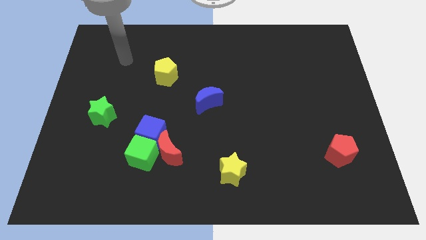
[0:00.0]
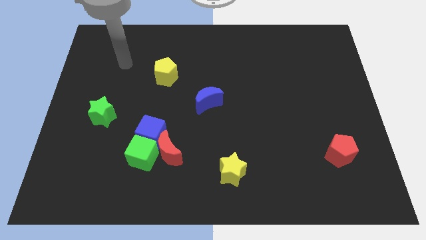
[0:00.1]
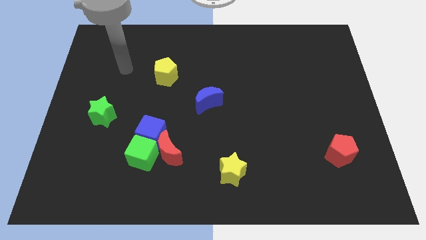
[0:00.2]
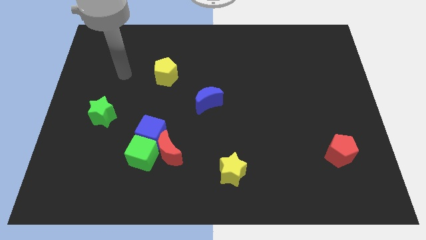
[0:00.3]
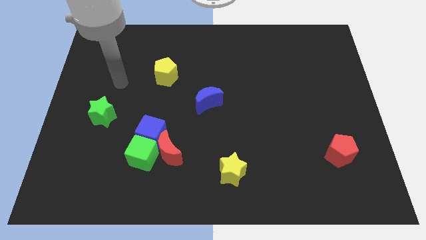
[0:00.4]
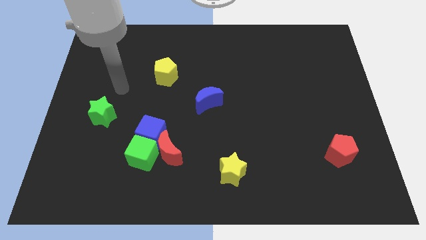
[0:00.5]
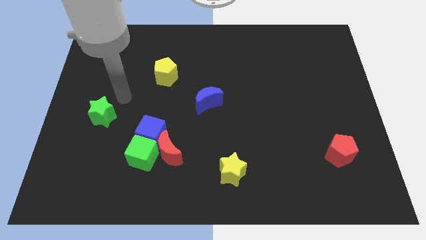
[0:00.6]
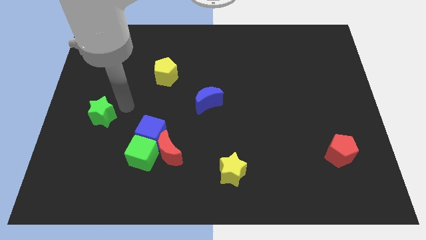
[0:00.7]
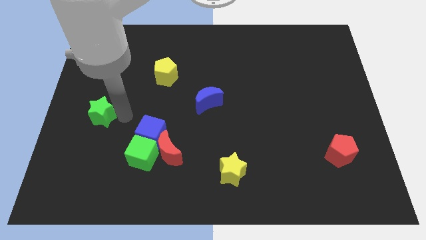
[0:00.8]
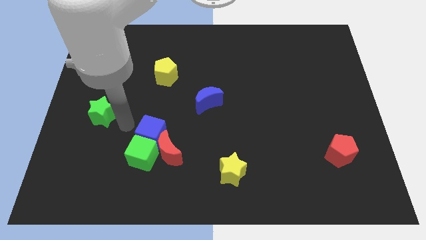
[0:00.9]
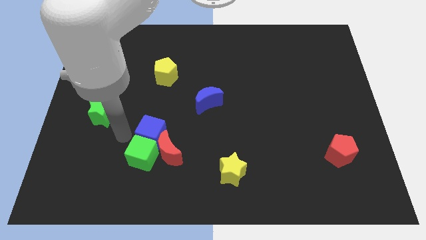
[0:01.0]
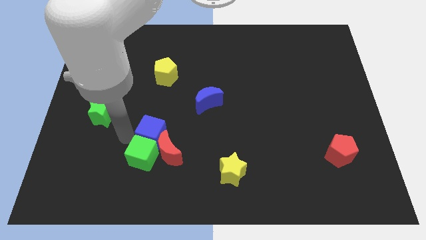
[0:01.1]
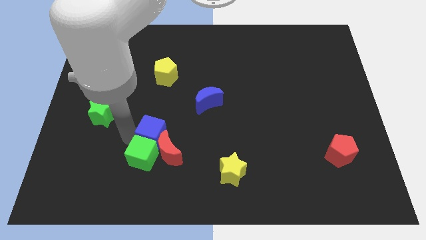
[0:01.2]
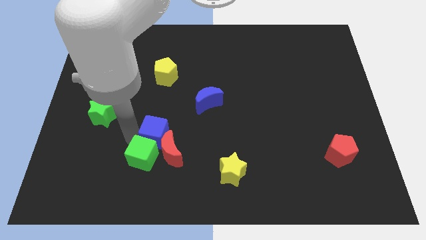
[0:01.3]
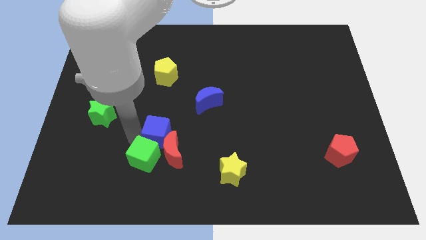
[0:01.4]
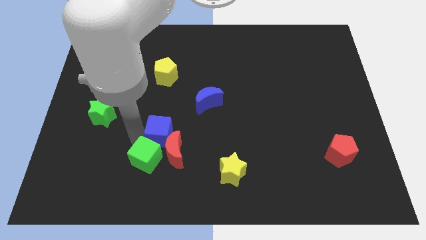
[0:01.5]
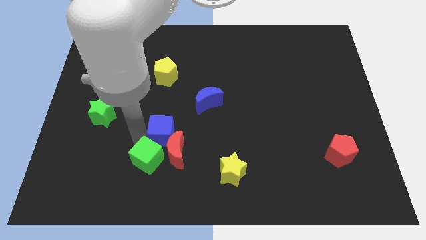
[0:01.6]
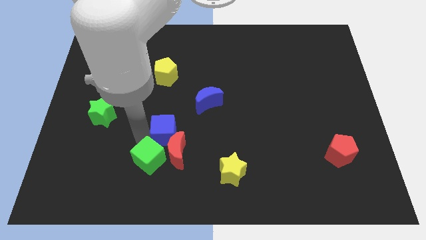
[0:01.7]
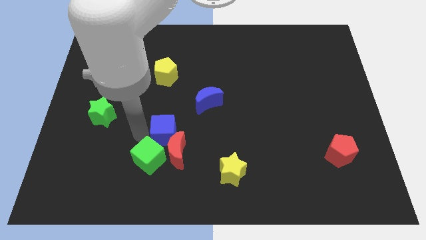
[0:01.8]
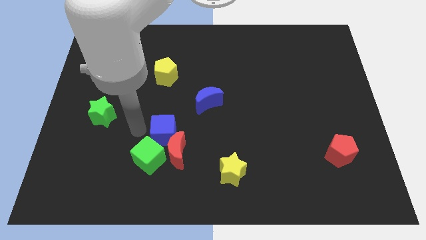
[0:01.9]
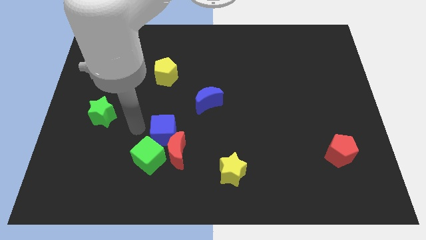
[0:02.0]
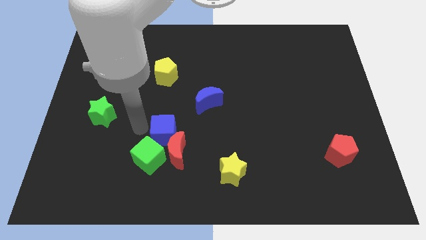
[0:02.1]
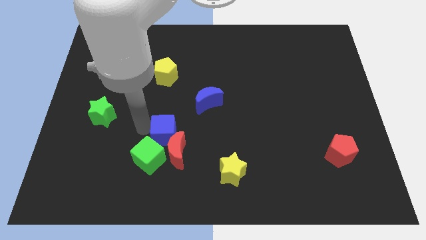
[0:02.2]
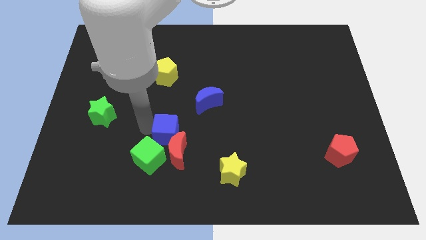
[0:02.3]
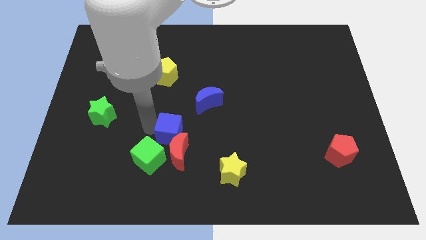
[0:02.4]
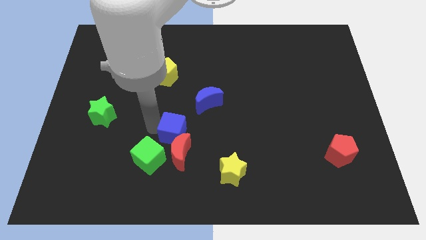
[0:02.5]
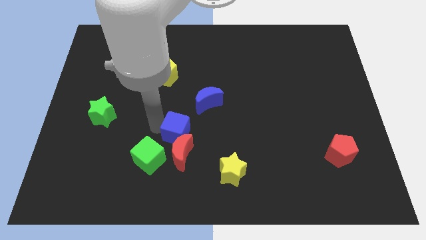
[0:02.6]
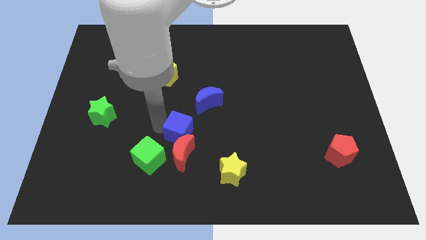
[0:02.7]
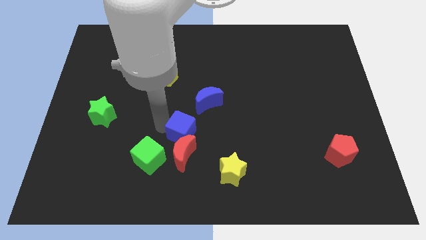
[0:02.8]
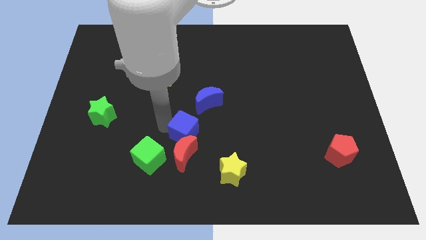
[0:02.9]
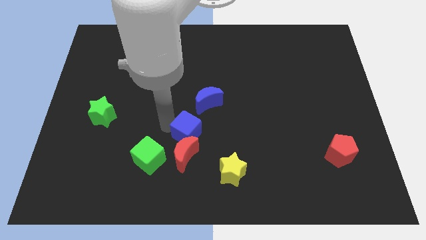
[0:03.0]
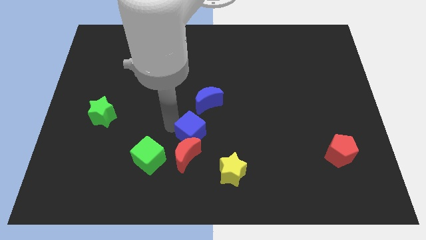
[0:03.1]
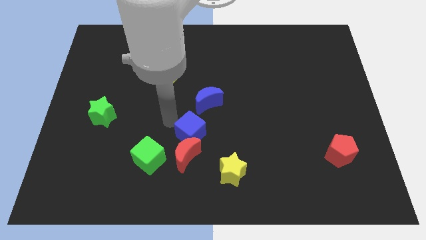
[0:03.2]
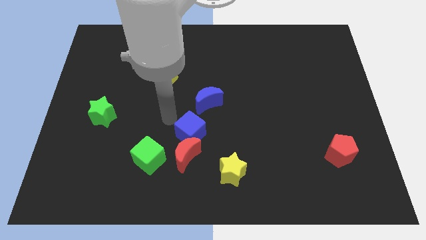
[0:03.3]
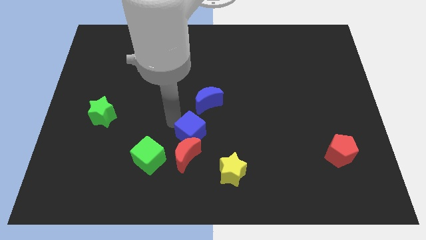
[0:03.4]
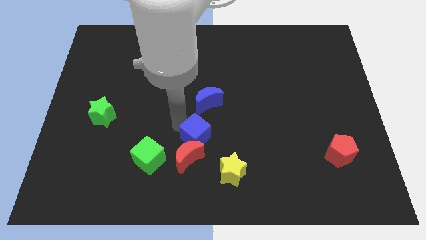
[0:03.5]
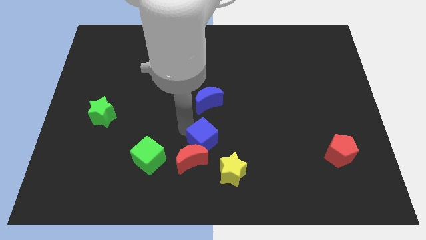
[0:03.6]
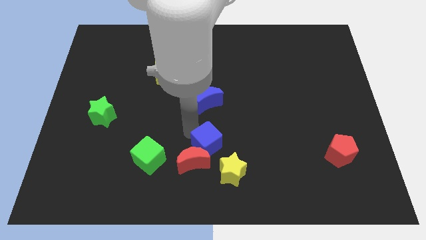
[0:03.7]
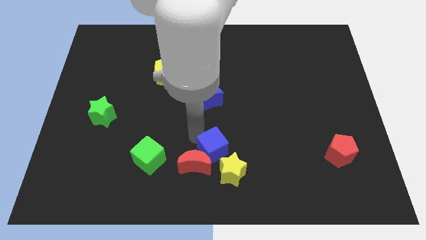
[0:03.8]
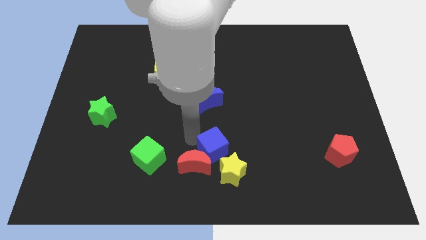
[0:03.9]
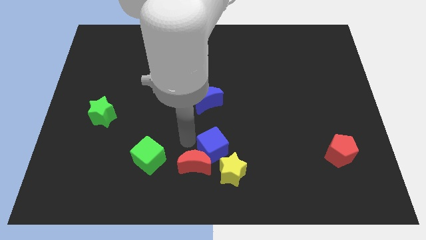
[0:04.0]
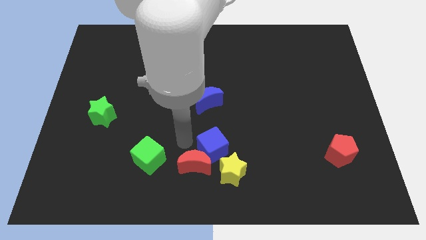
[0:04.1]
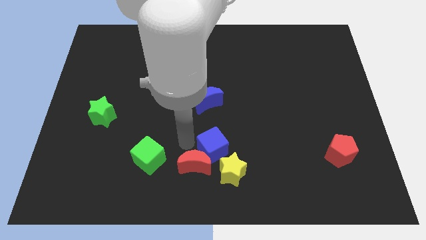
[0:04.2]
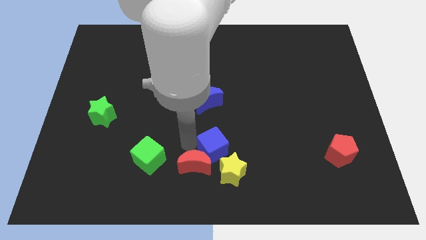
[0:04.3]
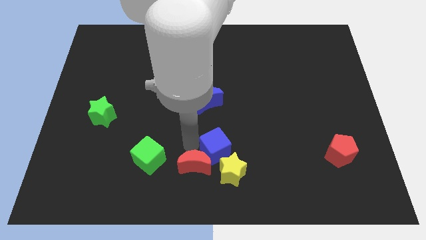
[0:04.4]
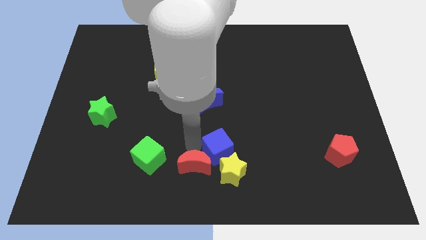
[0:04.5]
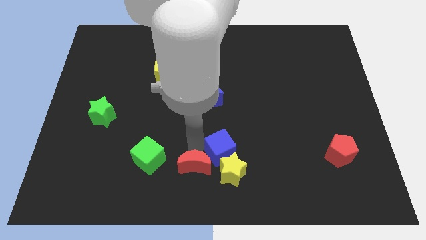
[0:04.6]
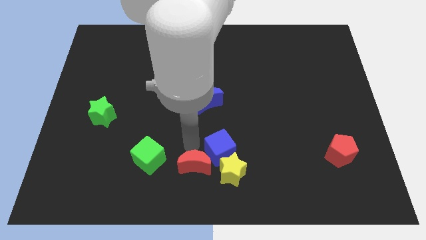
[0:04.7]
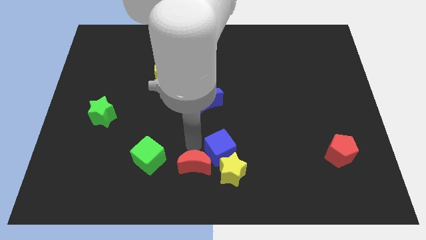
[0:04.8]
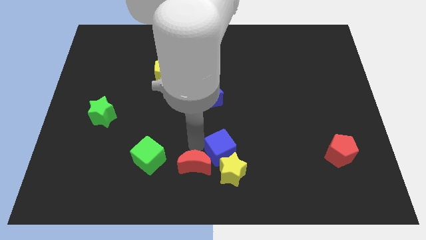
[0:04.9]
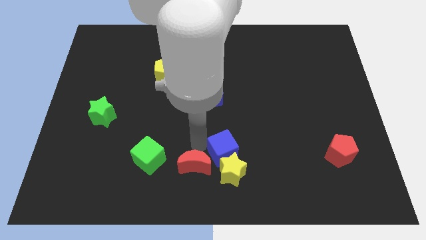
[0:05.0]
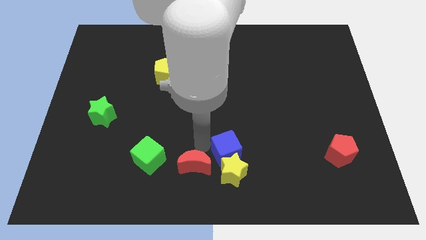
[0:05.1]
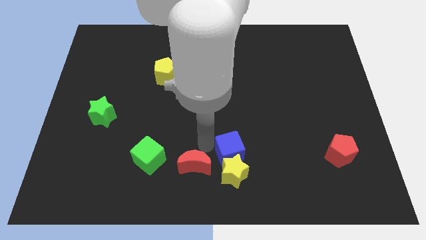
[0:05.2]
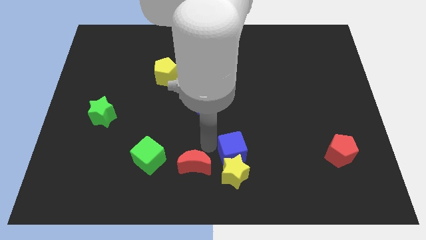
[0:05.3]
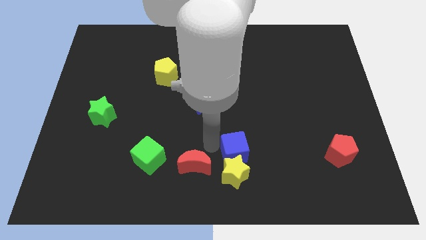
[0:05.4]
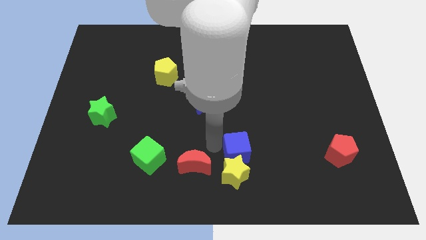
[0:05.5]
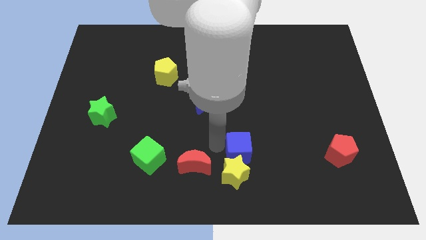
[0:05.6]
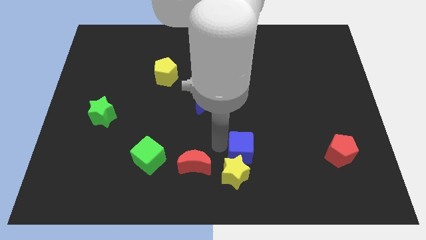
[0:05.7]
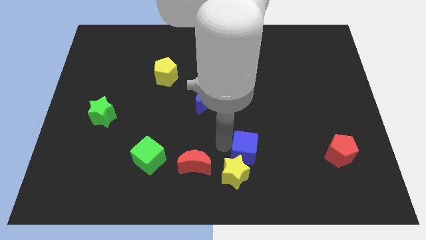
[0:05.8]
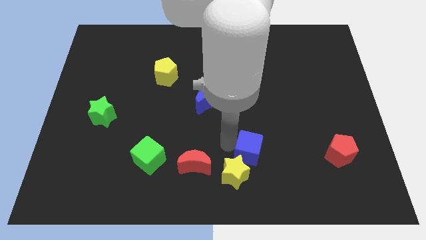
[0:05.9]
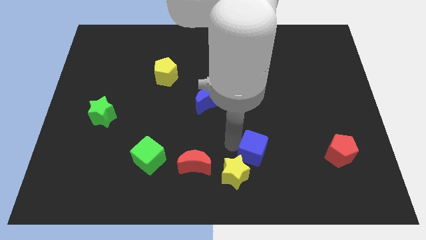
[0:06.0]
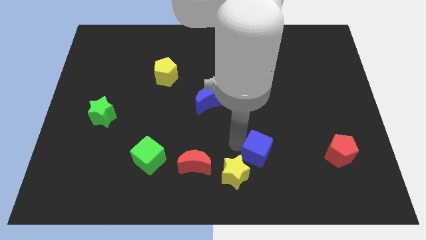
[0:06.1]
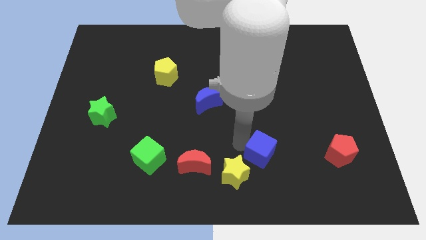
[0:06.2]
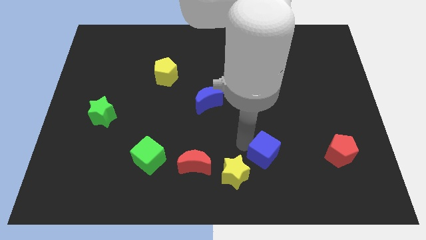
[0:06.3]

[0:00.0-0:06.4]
put the blue cube right of the yellow star

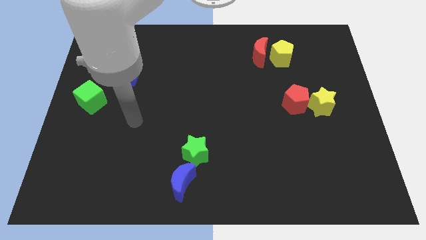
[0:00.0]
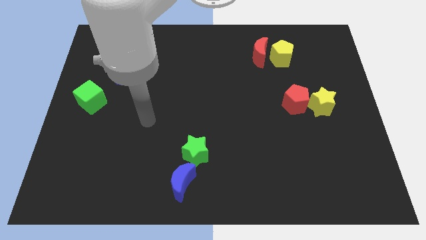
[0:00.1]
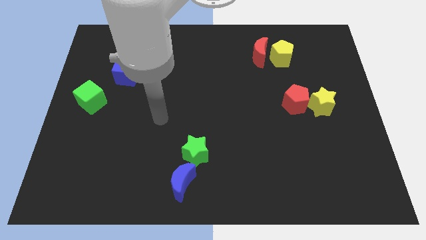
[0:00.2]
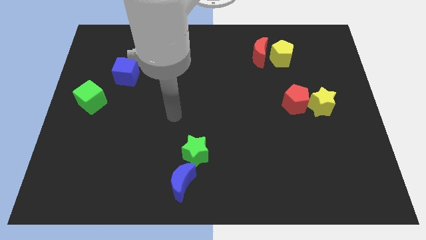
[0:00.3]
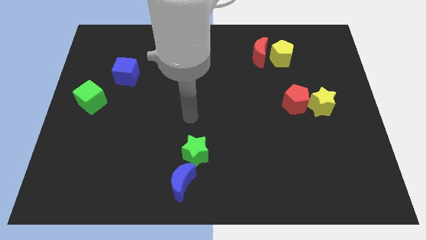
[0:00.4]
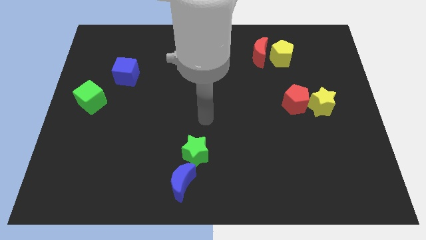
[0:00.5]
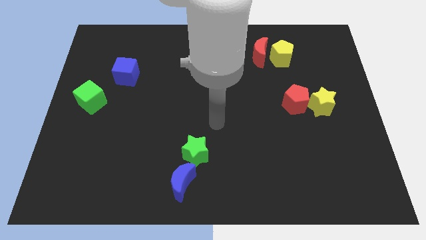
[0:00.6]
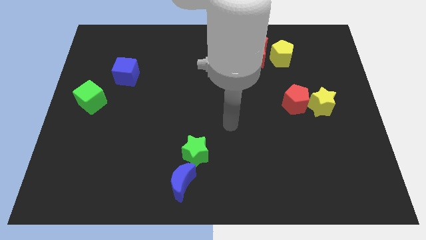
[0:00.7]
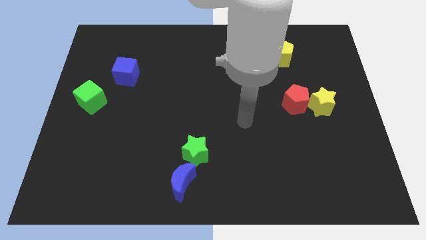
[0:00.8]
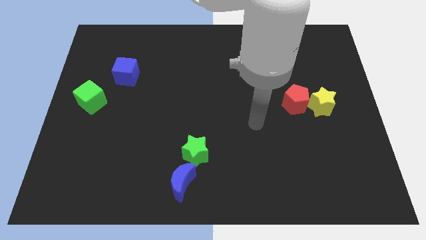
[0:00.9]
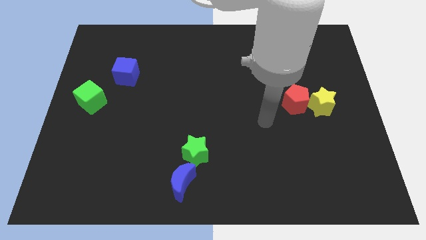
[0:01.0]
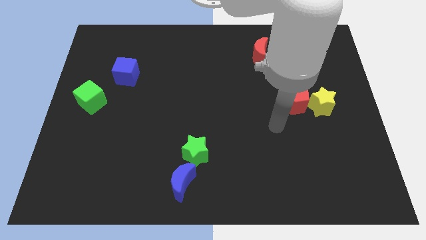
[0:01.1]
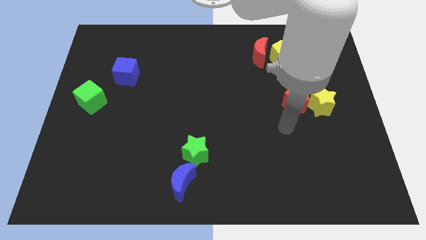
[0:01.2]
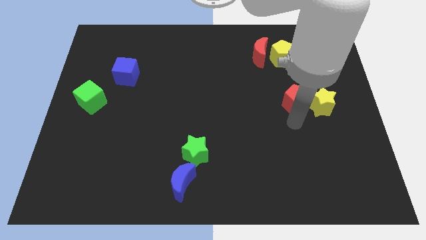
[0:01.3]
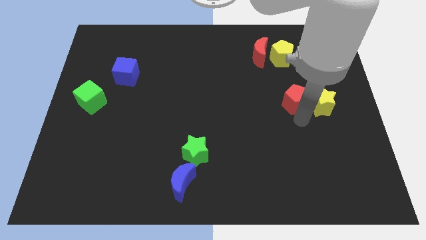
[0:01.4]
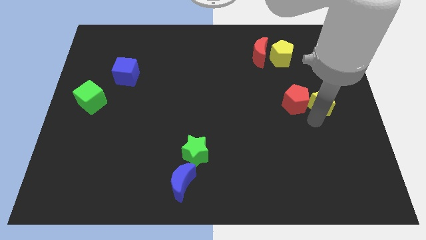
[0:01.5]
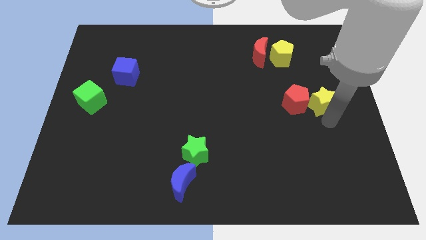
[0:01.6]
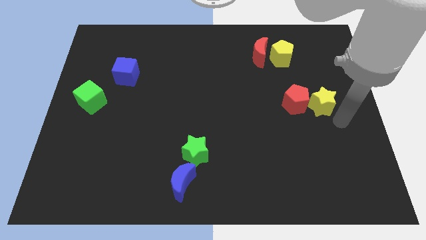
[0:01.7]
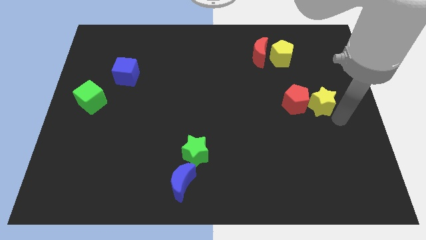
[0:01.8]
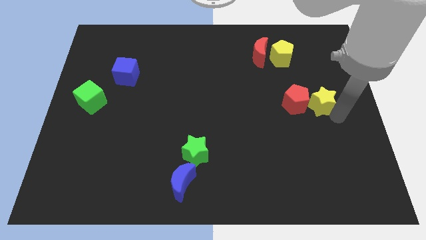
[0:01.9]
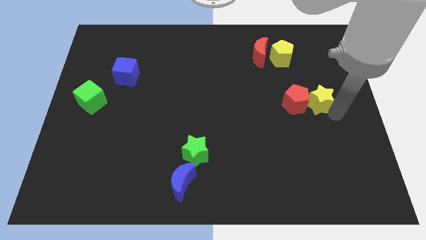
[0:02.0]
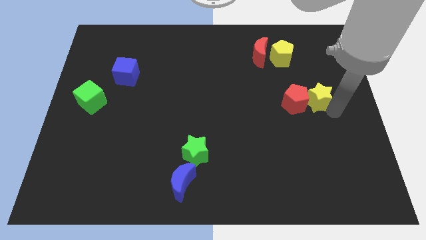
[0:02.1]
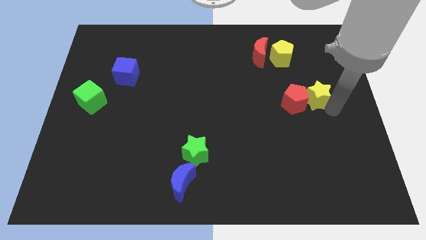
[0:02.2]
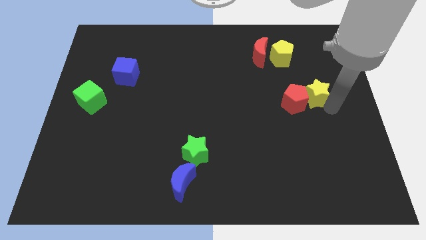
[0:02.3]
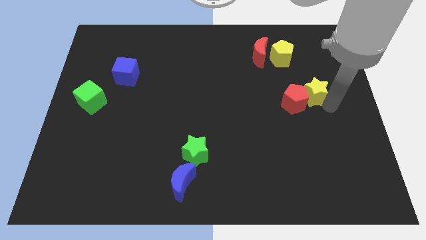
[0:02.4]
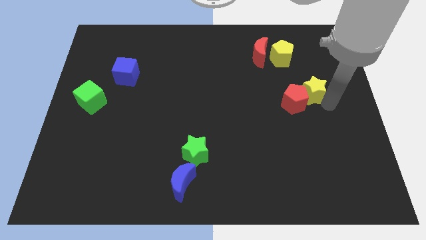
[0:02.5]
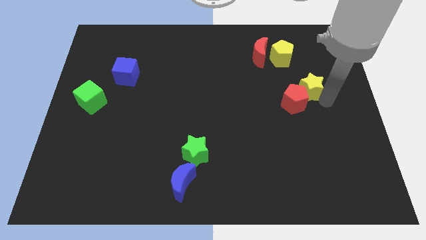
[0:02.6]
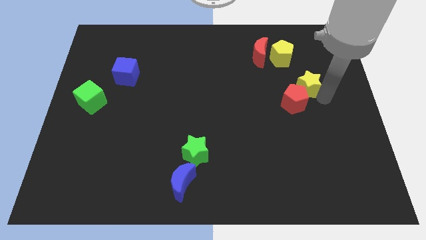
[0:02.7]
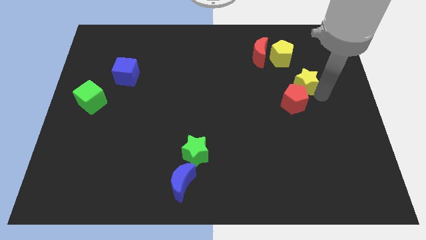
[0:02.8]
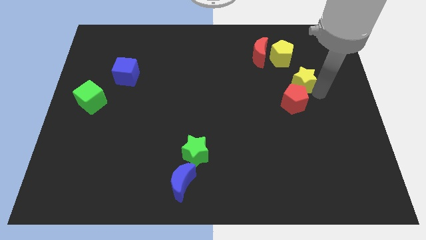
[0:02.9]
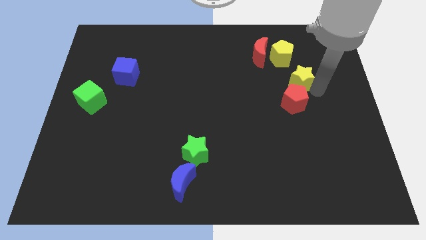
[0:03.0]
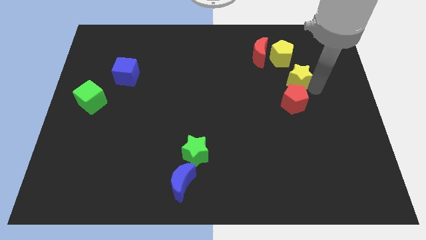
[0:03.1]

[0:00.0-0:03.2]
move the yellow star to the bottom right of the red moon
